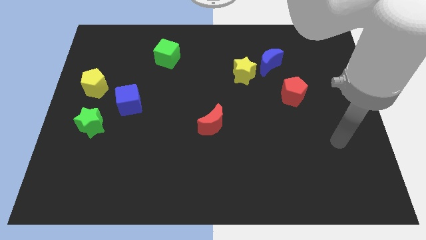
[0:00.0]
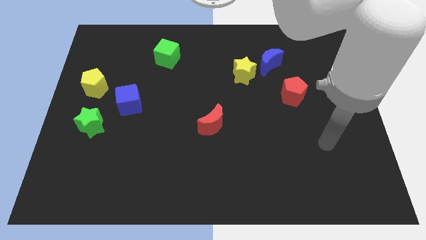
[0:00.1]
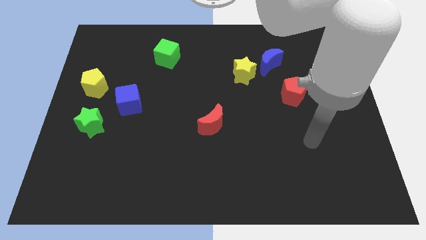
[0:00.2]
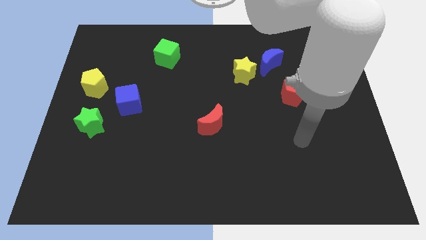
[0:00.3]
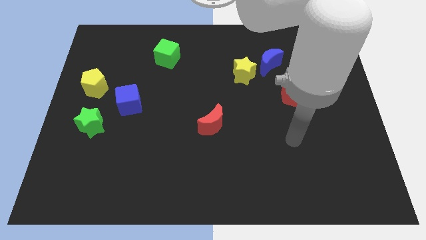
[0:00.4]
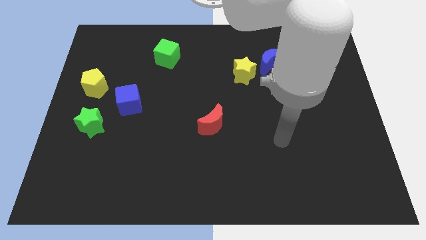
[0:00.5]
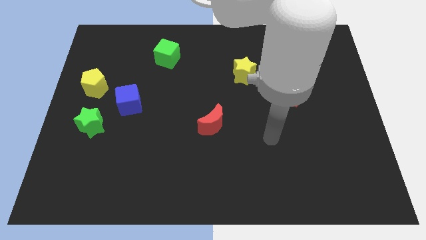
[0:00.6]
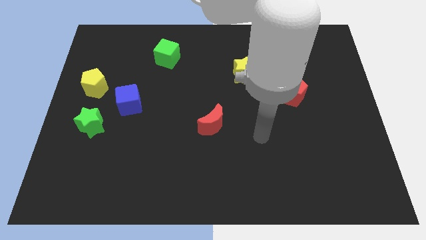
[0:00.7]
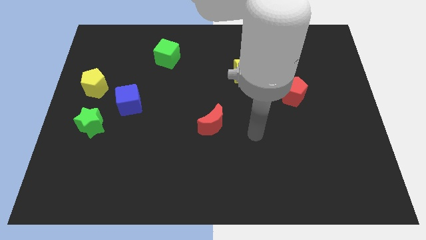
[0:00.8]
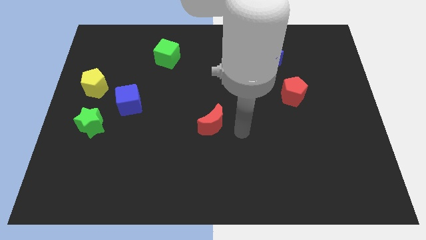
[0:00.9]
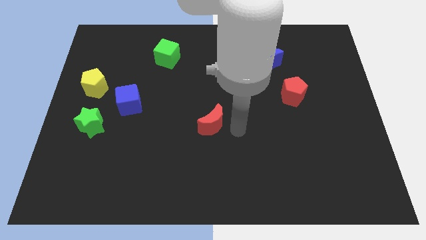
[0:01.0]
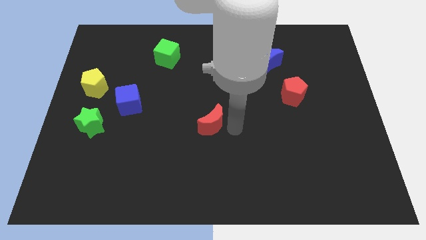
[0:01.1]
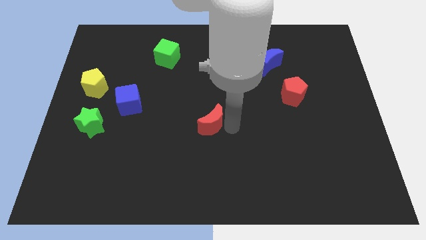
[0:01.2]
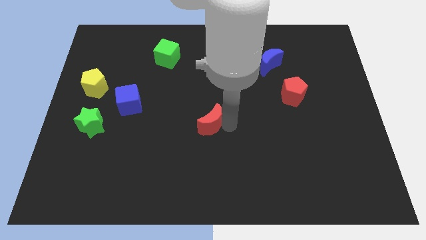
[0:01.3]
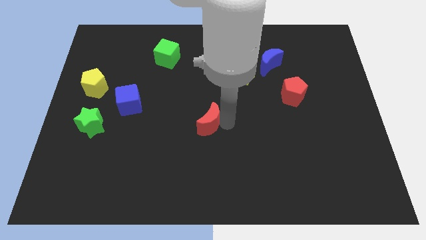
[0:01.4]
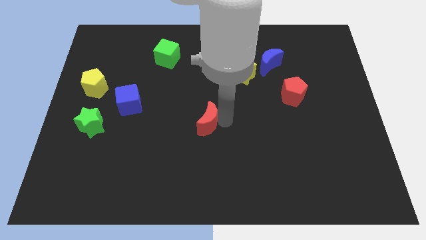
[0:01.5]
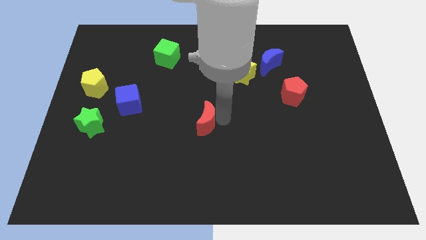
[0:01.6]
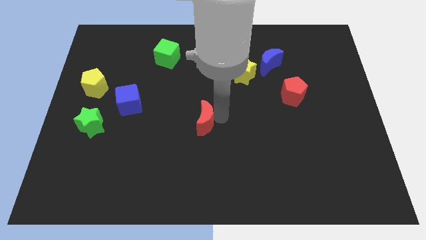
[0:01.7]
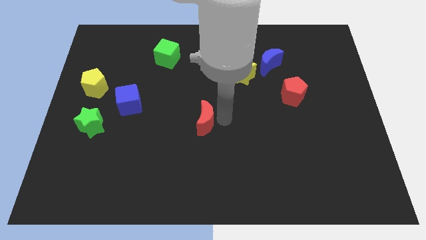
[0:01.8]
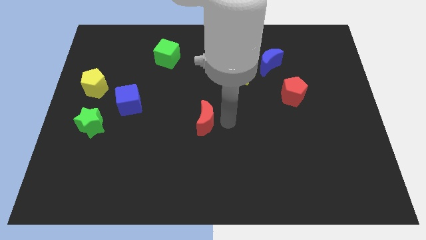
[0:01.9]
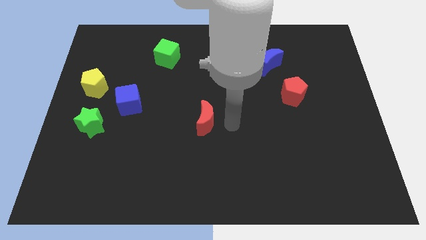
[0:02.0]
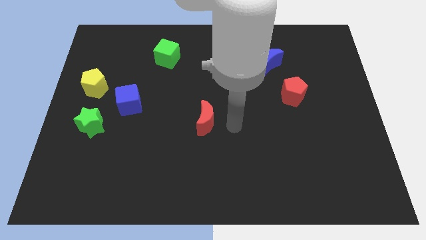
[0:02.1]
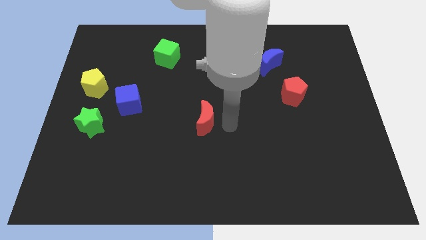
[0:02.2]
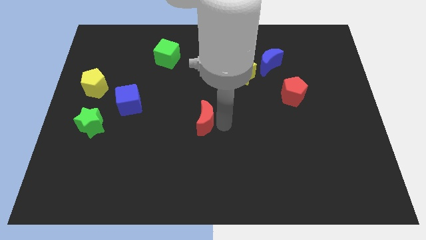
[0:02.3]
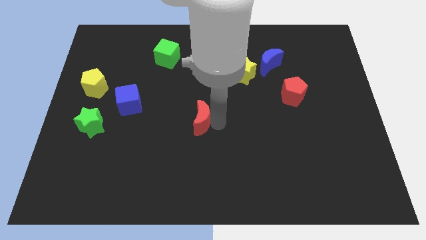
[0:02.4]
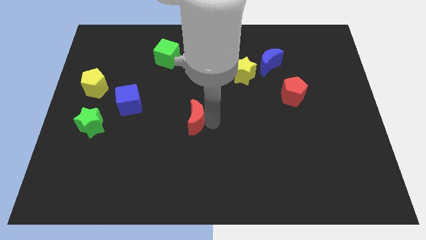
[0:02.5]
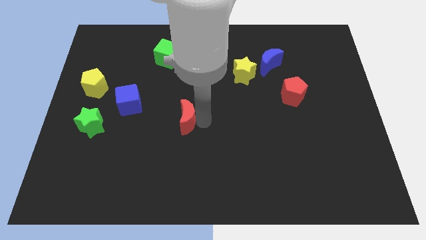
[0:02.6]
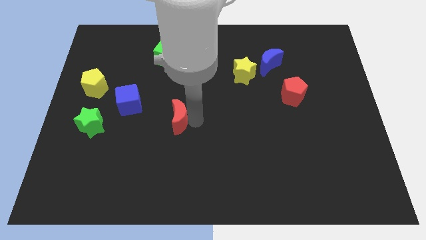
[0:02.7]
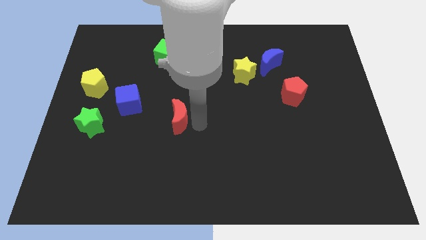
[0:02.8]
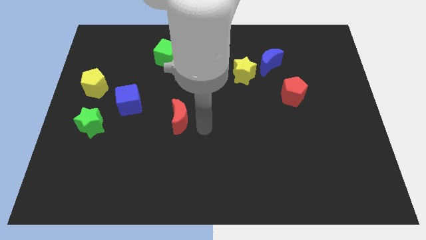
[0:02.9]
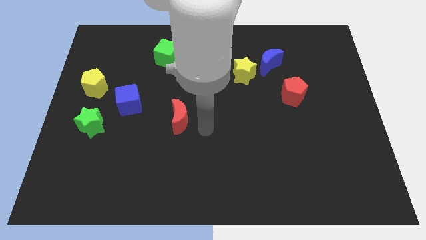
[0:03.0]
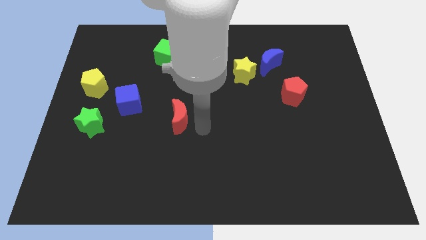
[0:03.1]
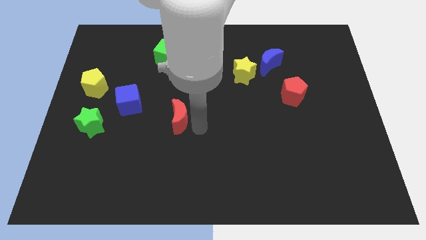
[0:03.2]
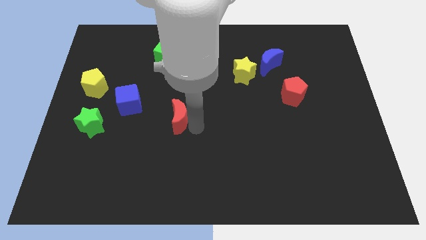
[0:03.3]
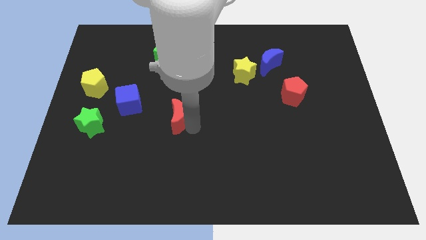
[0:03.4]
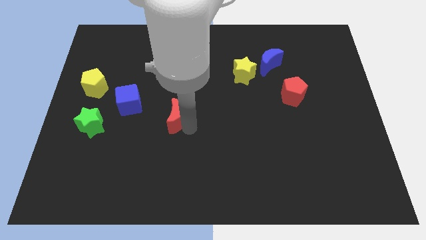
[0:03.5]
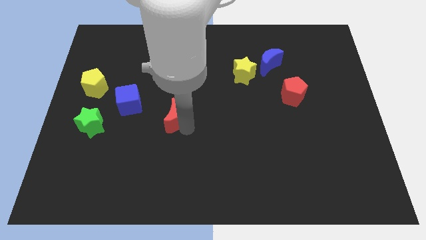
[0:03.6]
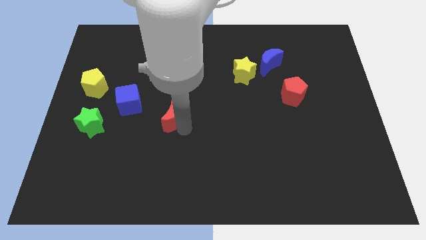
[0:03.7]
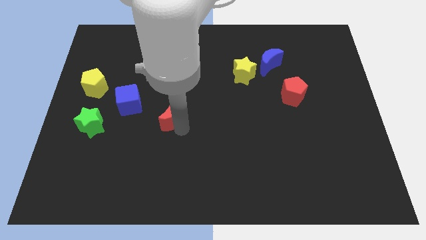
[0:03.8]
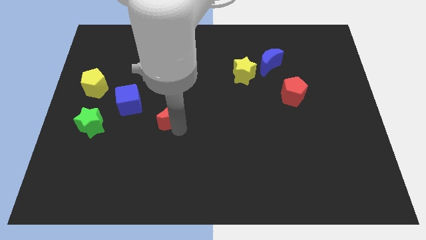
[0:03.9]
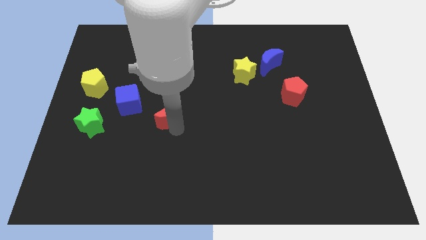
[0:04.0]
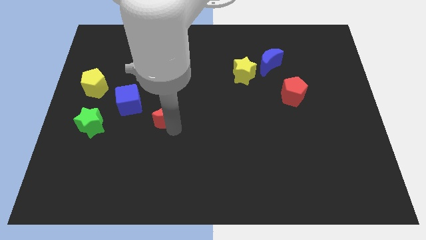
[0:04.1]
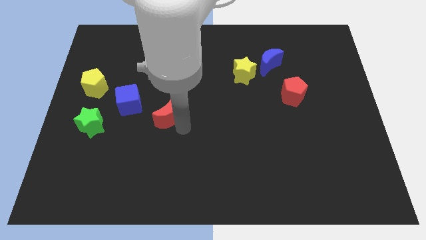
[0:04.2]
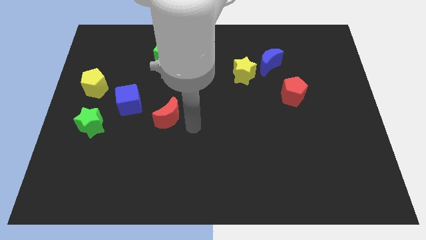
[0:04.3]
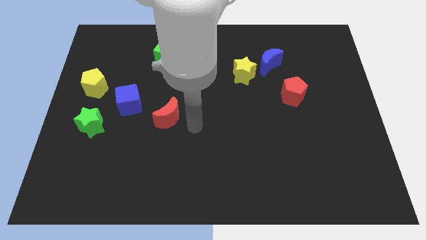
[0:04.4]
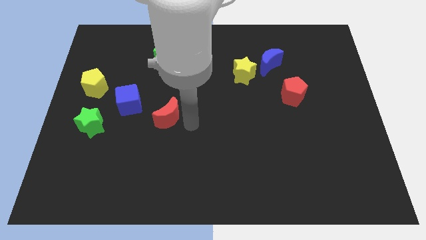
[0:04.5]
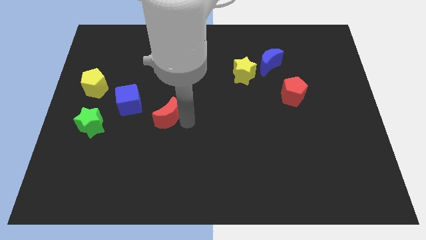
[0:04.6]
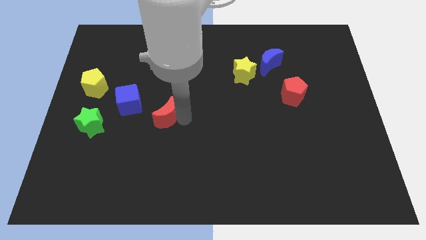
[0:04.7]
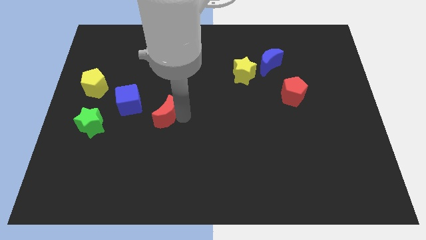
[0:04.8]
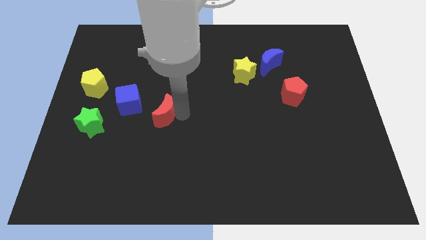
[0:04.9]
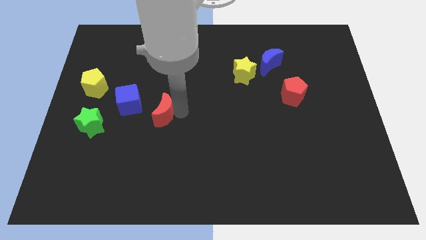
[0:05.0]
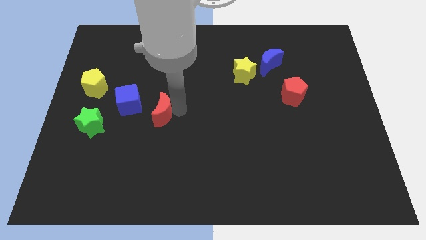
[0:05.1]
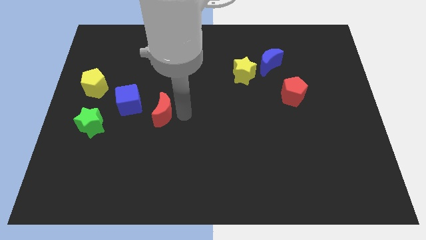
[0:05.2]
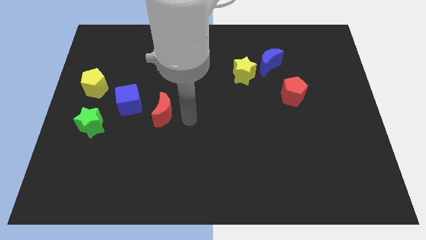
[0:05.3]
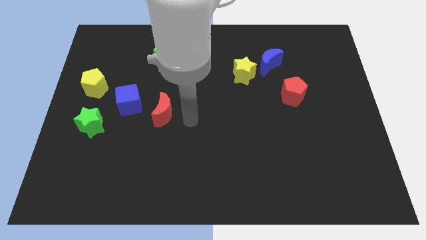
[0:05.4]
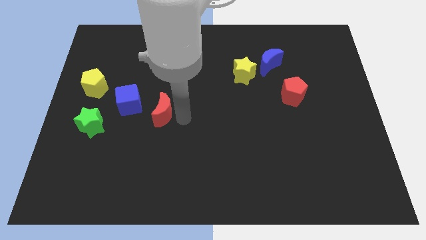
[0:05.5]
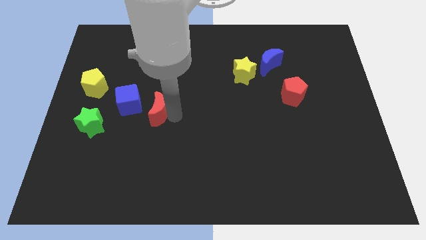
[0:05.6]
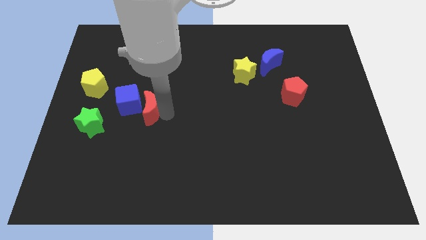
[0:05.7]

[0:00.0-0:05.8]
slide the red moon towards the blue cube

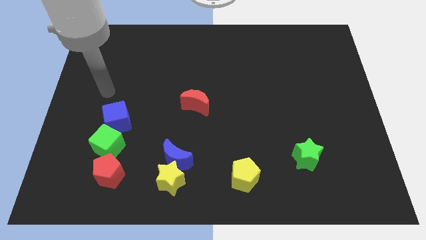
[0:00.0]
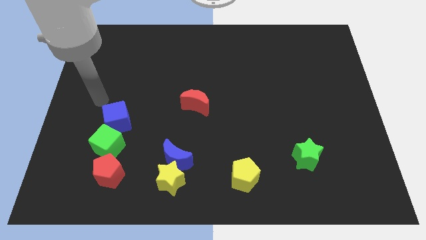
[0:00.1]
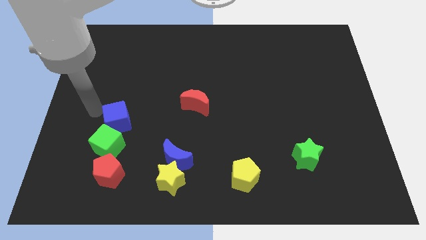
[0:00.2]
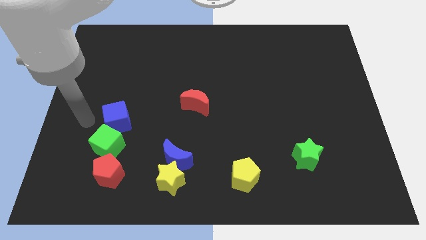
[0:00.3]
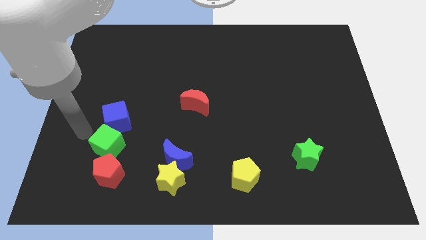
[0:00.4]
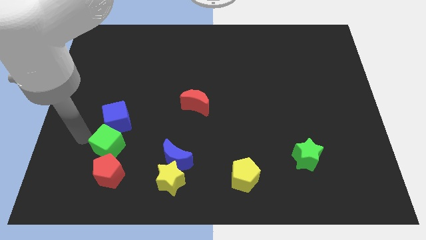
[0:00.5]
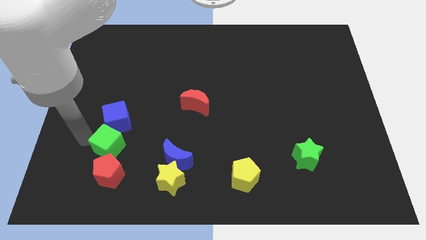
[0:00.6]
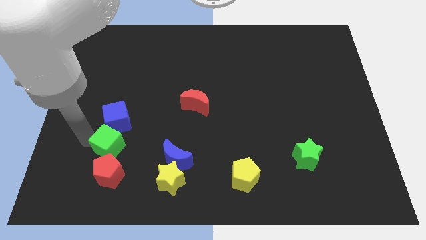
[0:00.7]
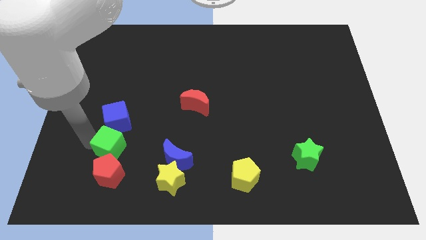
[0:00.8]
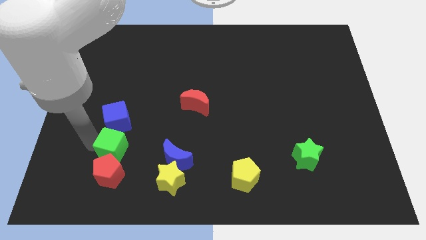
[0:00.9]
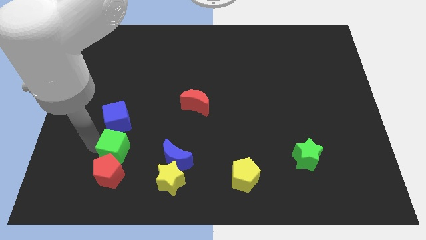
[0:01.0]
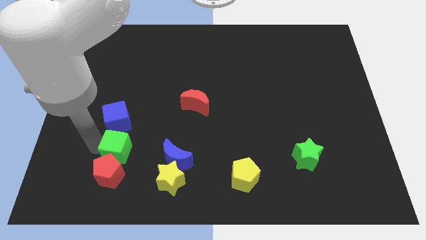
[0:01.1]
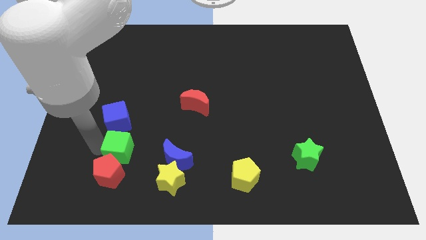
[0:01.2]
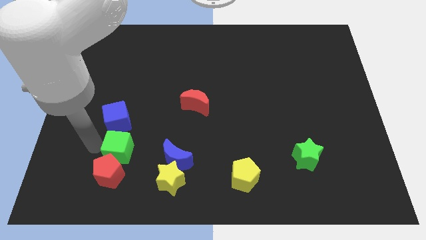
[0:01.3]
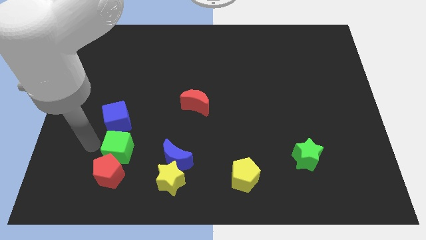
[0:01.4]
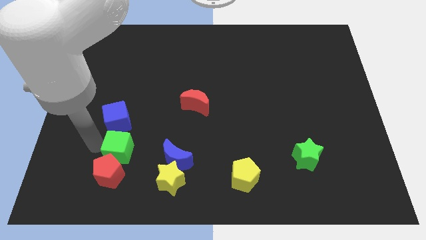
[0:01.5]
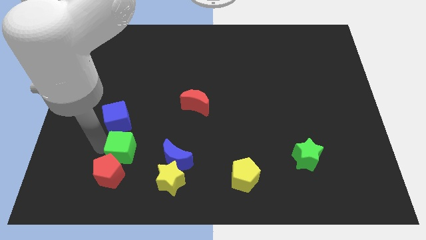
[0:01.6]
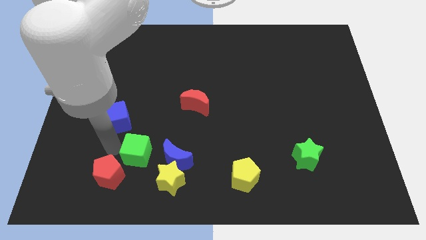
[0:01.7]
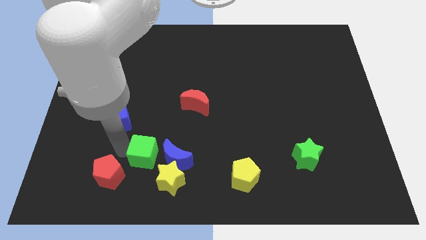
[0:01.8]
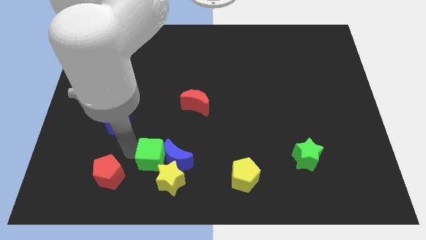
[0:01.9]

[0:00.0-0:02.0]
slide the green cube towards the blue moon
